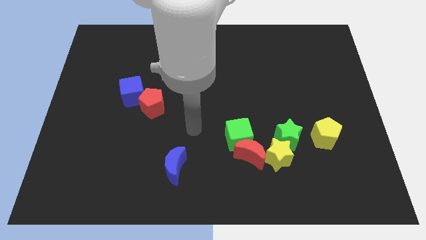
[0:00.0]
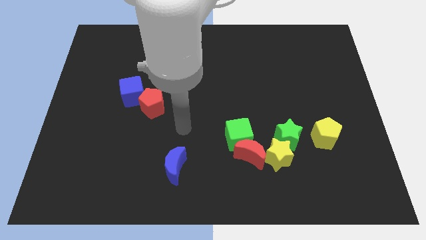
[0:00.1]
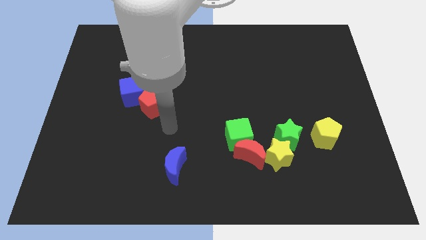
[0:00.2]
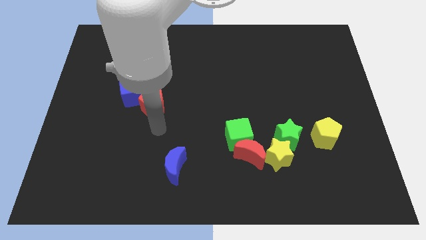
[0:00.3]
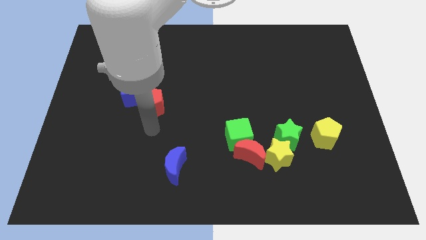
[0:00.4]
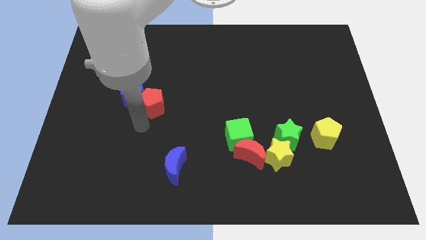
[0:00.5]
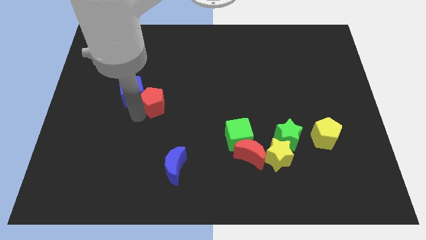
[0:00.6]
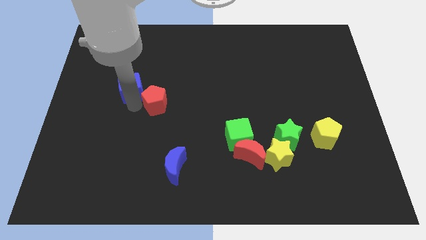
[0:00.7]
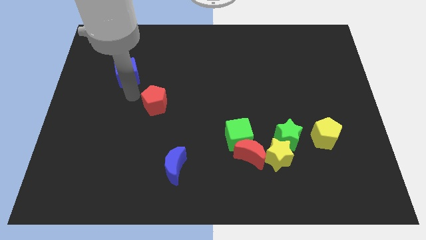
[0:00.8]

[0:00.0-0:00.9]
pull the red pentagon apart from the blue cube

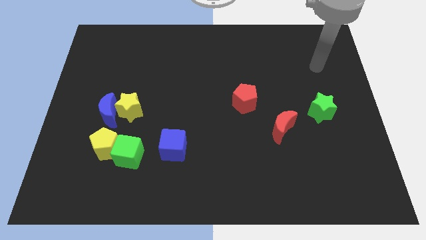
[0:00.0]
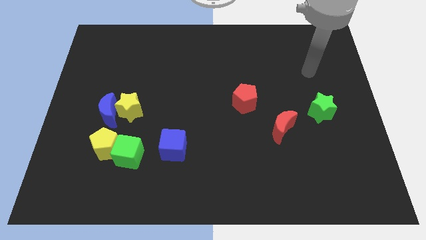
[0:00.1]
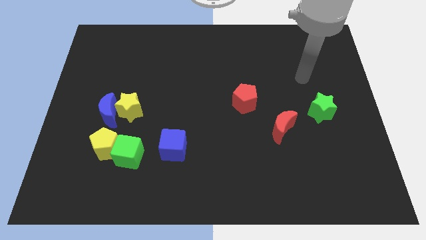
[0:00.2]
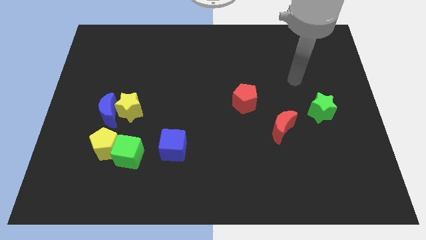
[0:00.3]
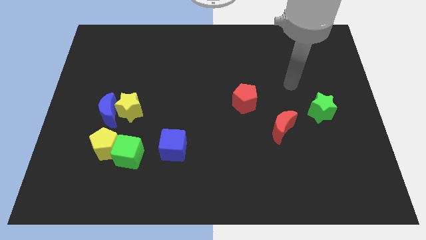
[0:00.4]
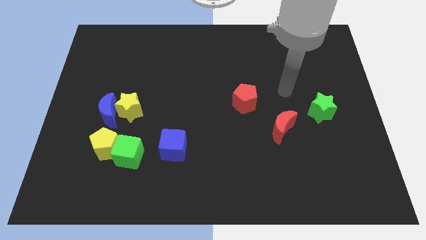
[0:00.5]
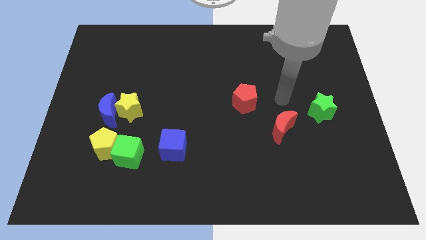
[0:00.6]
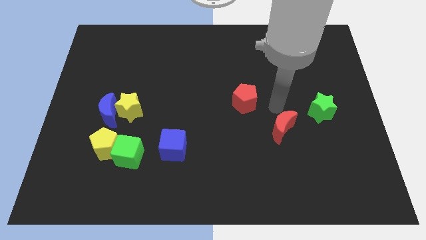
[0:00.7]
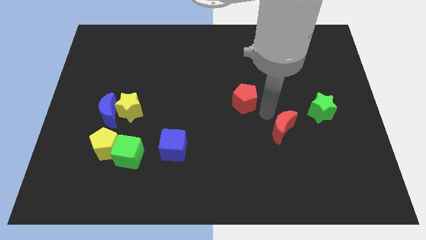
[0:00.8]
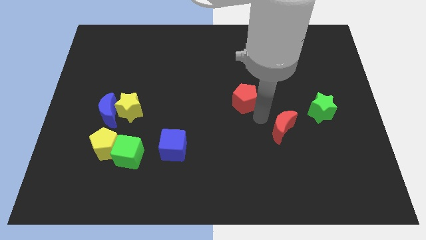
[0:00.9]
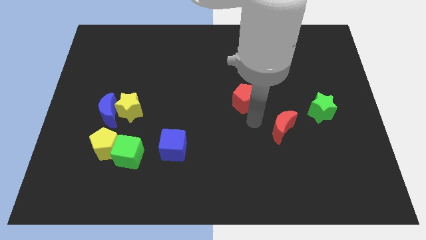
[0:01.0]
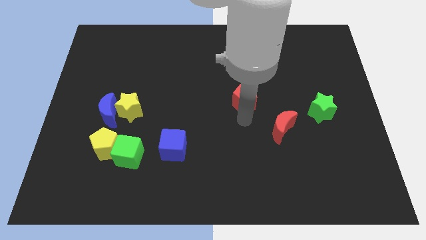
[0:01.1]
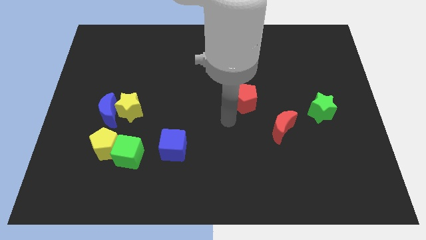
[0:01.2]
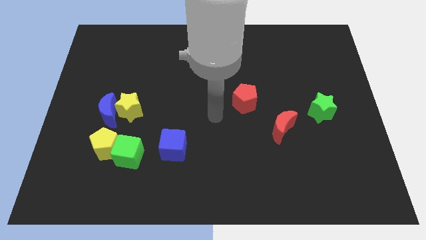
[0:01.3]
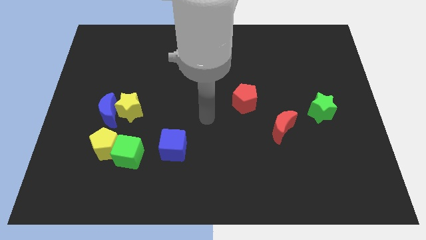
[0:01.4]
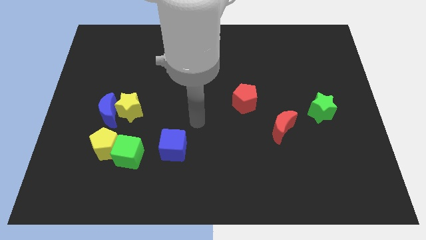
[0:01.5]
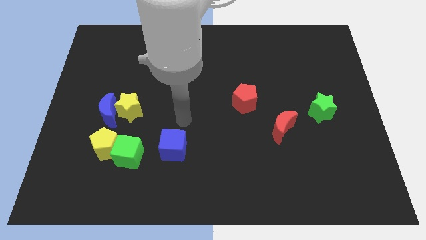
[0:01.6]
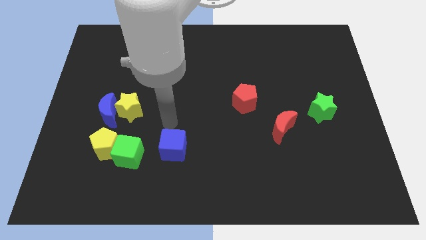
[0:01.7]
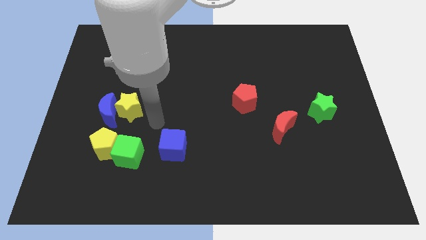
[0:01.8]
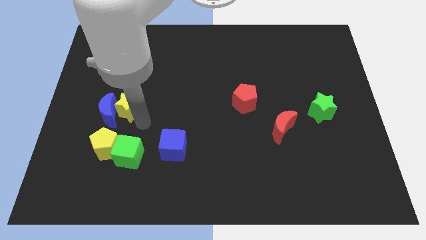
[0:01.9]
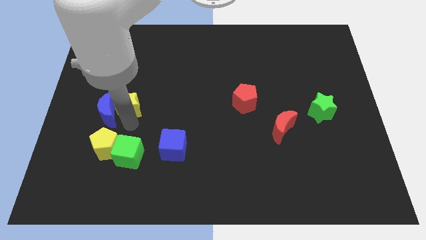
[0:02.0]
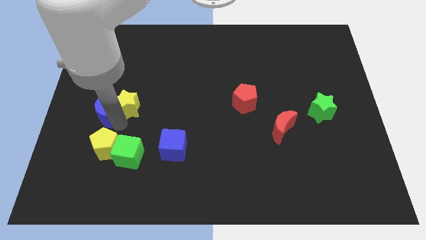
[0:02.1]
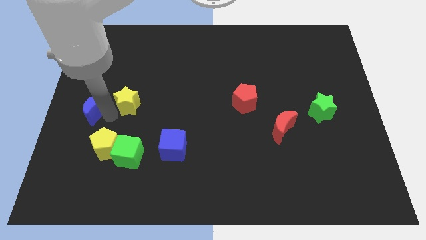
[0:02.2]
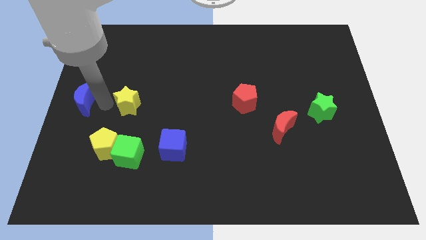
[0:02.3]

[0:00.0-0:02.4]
pull the yellow star apart from the blue moon

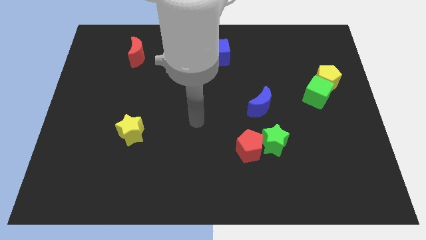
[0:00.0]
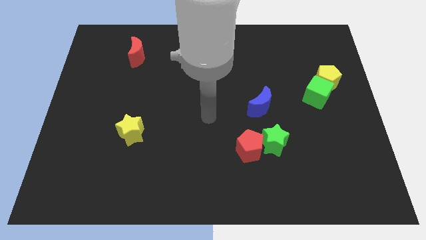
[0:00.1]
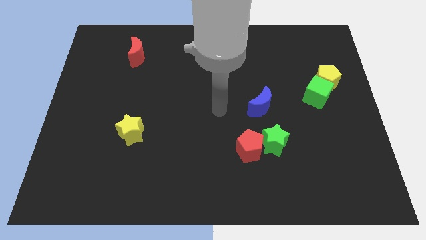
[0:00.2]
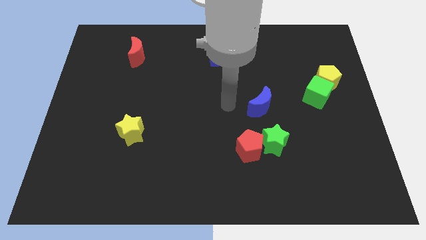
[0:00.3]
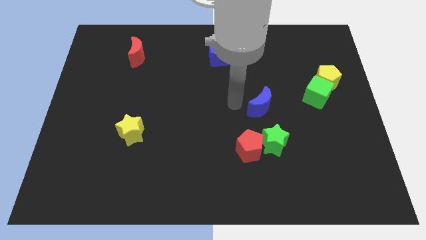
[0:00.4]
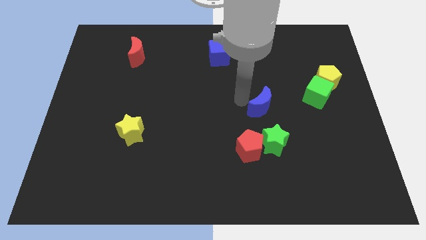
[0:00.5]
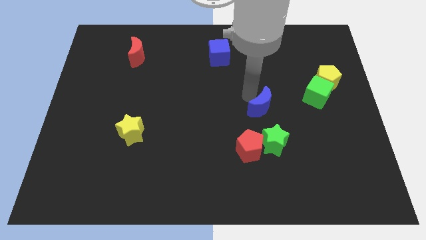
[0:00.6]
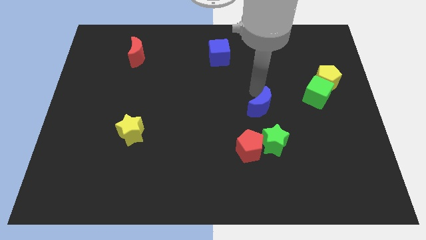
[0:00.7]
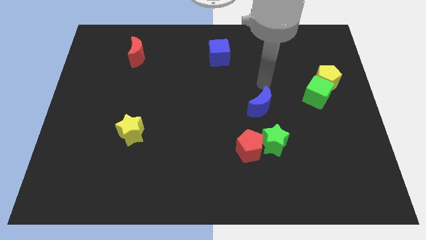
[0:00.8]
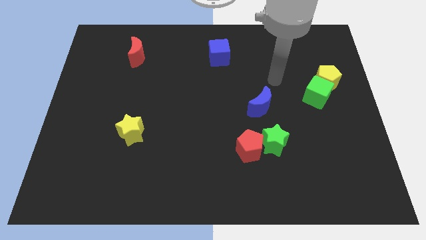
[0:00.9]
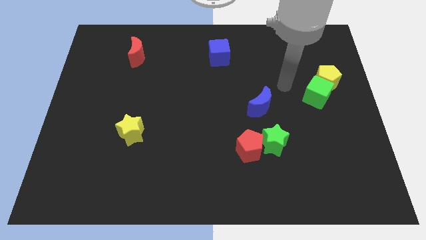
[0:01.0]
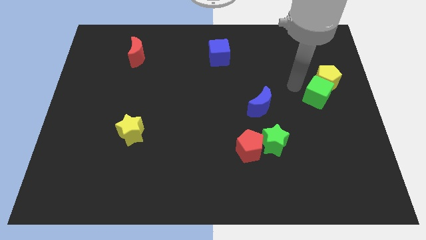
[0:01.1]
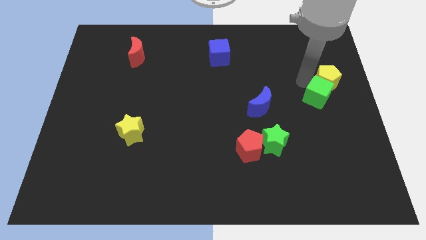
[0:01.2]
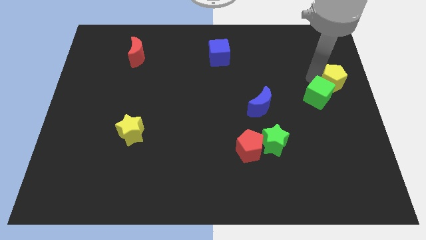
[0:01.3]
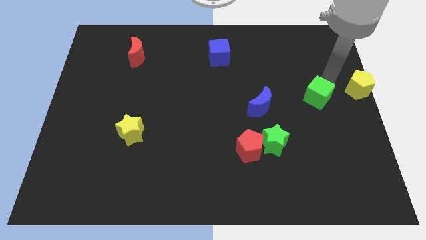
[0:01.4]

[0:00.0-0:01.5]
pull the green cube apart from the yellow pentagon

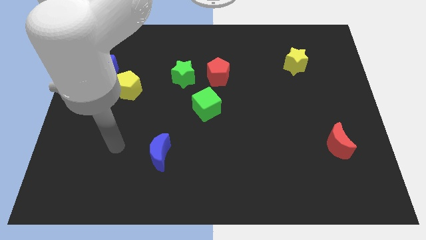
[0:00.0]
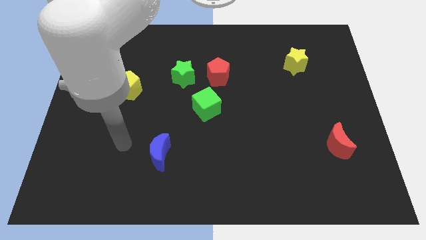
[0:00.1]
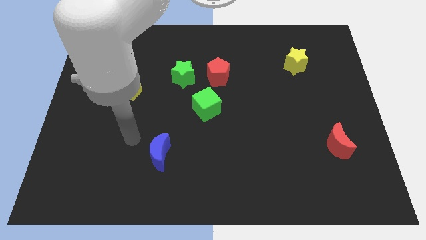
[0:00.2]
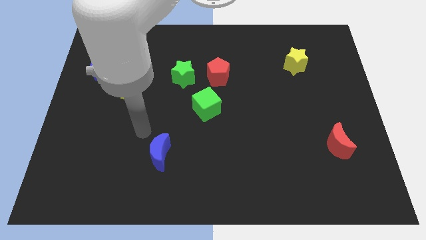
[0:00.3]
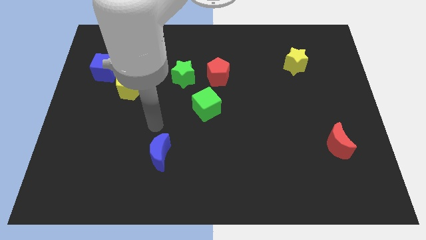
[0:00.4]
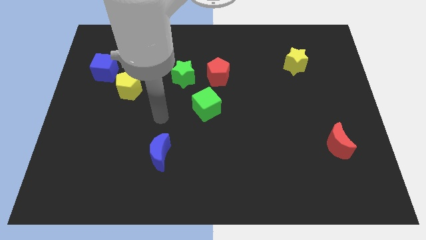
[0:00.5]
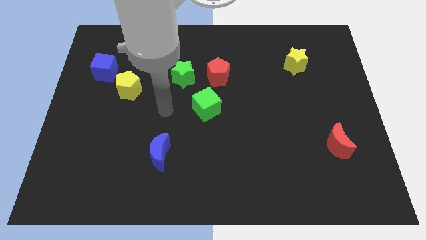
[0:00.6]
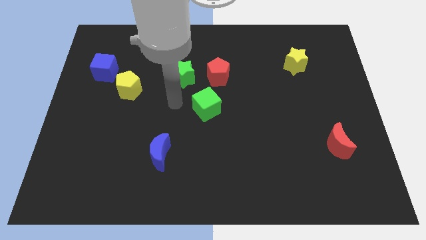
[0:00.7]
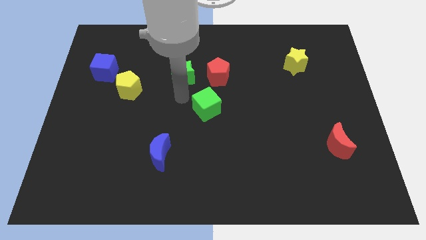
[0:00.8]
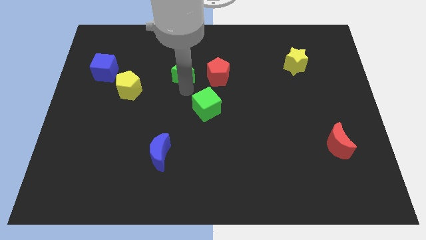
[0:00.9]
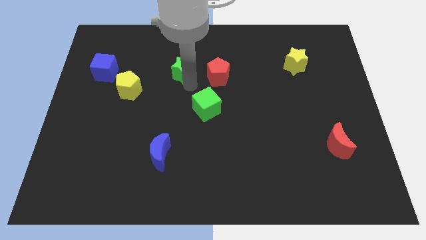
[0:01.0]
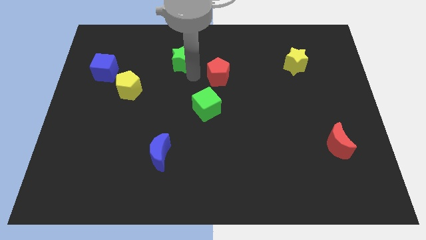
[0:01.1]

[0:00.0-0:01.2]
pull the red pentagon apart from the green star

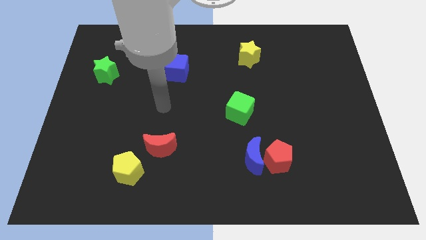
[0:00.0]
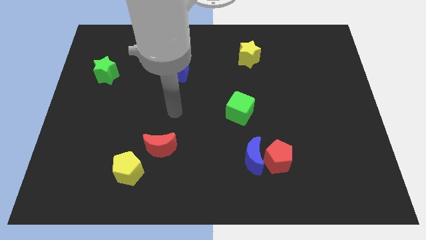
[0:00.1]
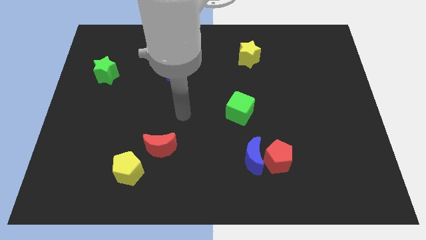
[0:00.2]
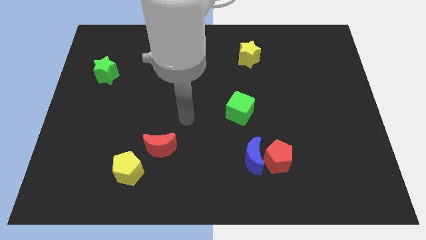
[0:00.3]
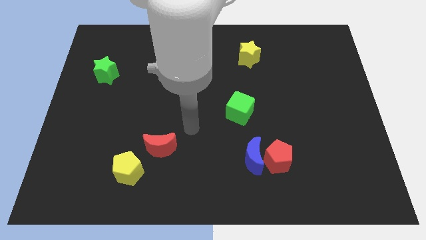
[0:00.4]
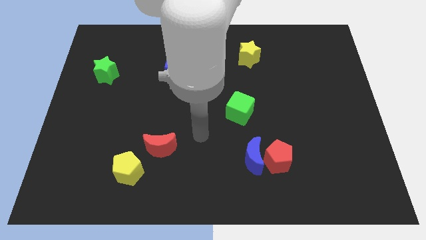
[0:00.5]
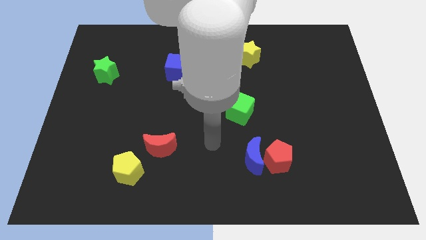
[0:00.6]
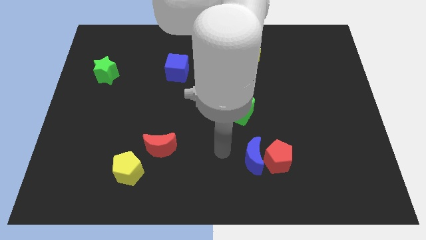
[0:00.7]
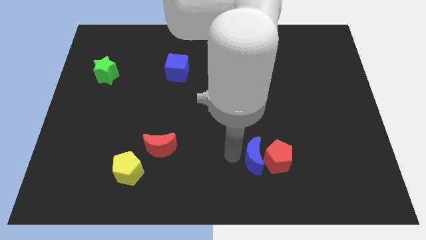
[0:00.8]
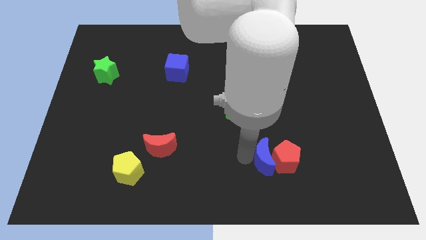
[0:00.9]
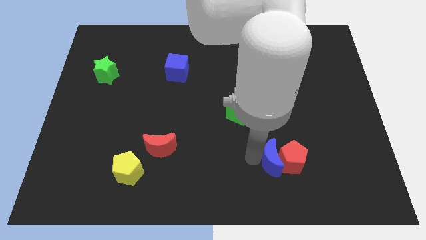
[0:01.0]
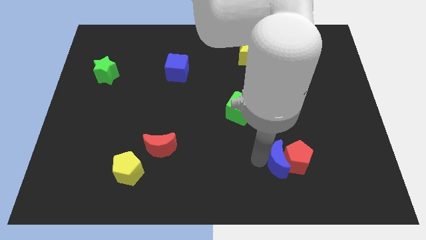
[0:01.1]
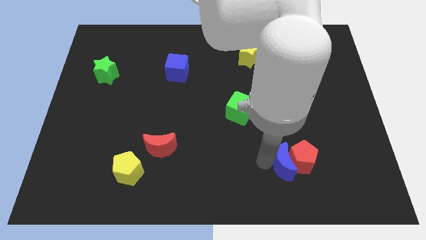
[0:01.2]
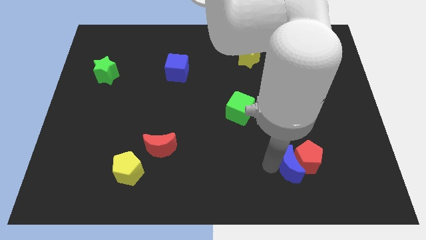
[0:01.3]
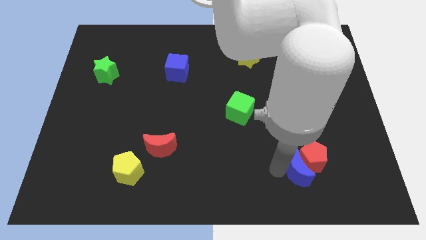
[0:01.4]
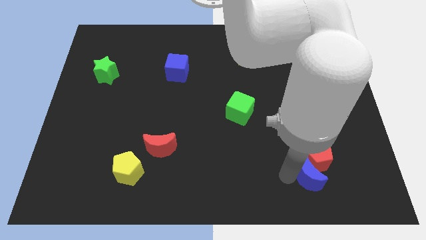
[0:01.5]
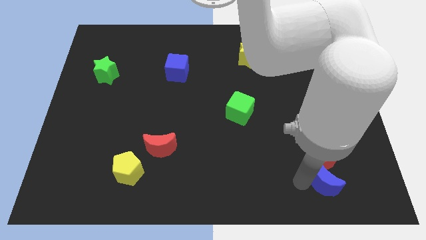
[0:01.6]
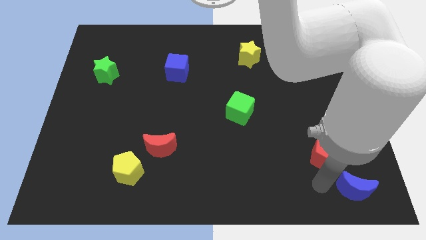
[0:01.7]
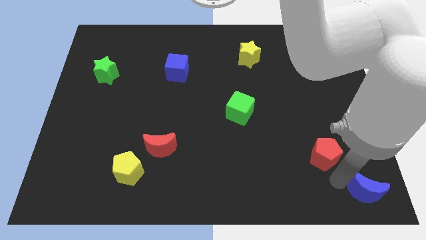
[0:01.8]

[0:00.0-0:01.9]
separate the red pentagon from the blue moon

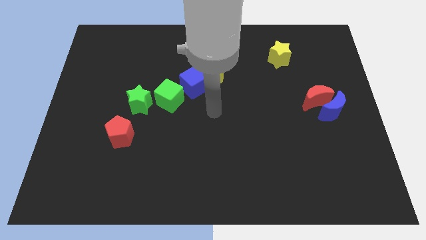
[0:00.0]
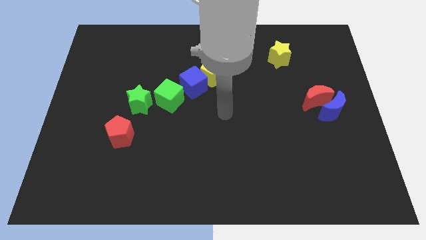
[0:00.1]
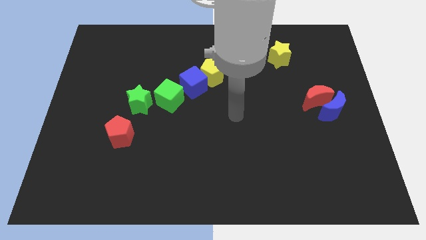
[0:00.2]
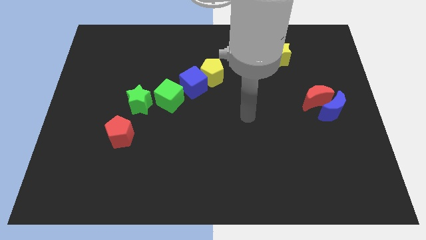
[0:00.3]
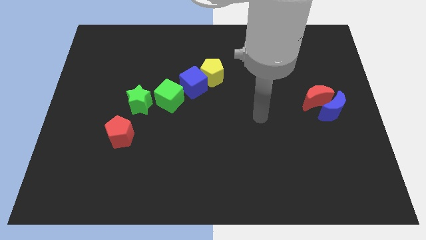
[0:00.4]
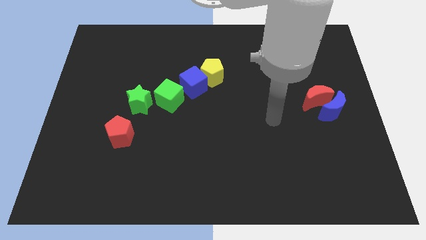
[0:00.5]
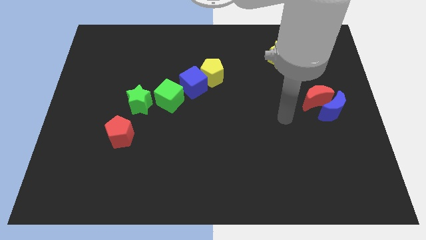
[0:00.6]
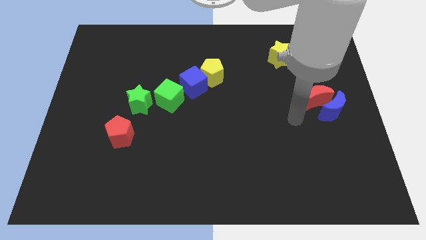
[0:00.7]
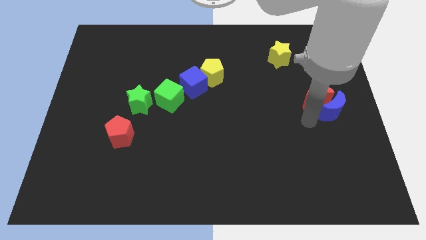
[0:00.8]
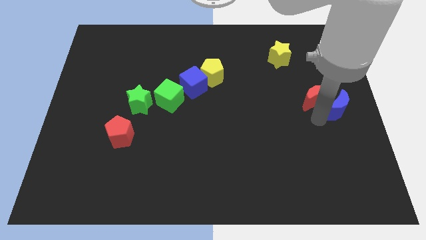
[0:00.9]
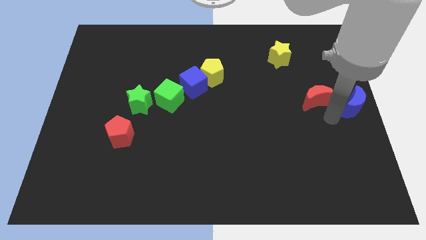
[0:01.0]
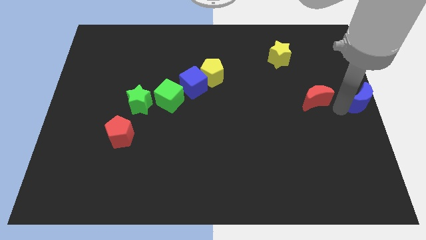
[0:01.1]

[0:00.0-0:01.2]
separate the red moon from the blue moon

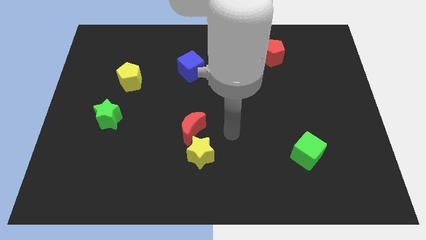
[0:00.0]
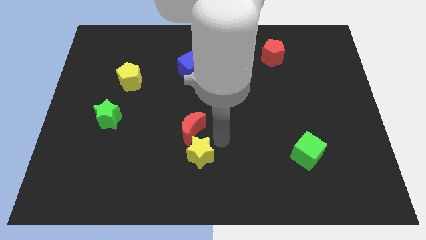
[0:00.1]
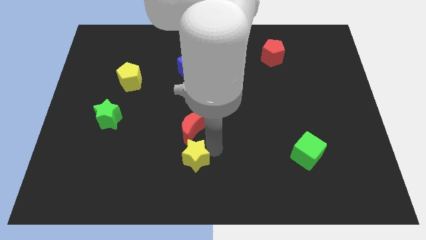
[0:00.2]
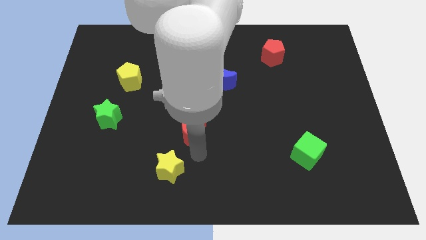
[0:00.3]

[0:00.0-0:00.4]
move the red moon away from the yellow star
